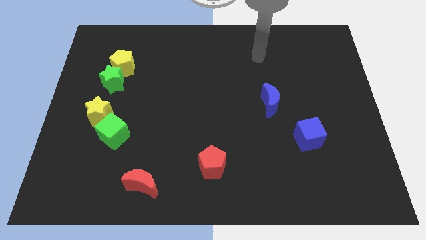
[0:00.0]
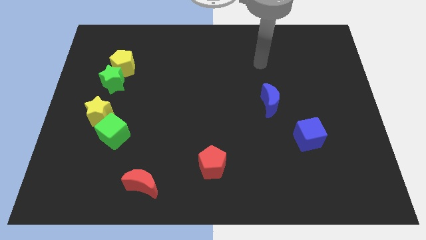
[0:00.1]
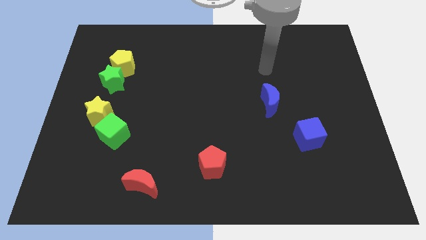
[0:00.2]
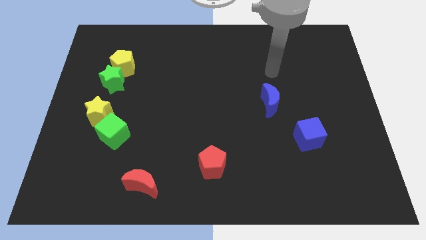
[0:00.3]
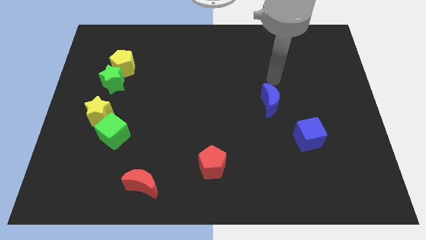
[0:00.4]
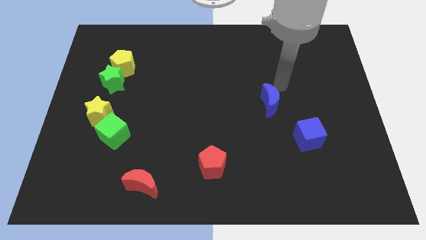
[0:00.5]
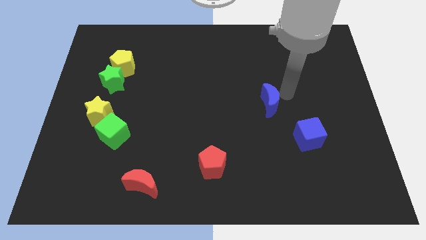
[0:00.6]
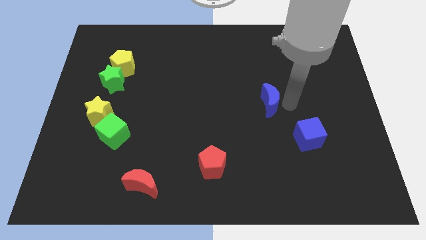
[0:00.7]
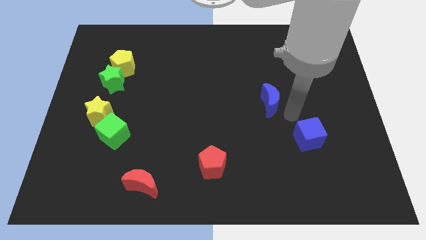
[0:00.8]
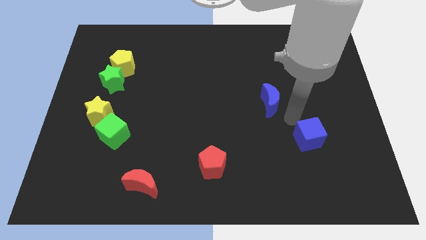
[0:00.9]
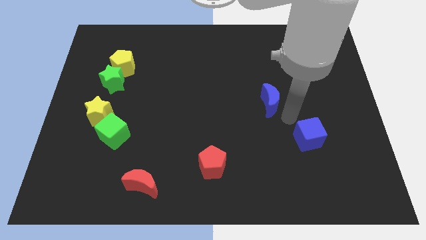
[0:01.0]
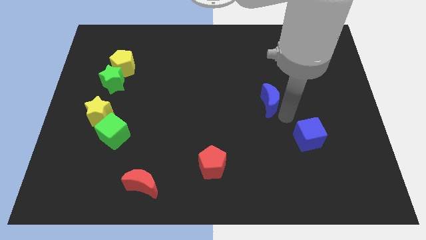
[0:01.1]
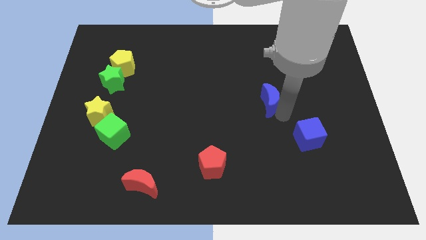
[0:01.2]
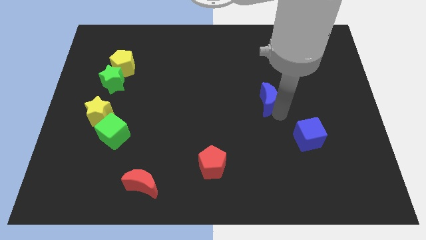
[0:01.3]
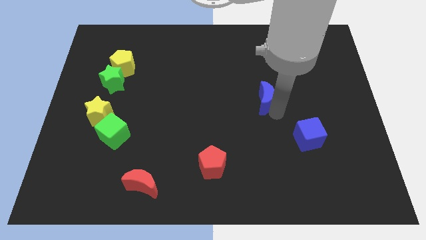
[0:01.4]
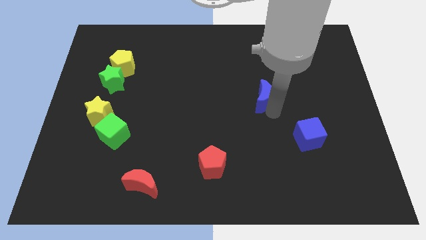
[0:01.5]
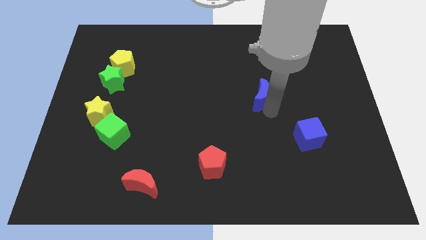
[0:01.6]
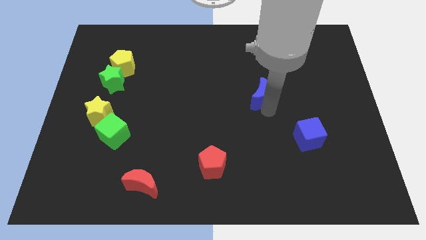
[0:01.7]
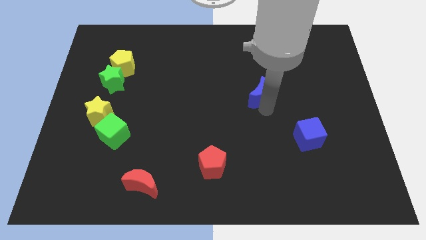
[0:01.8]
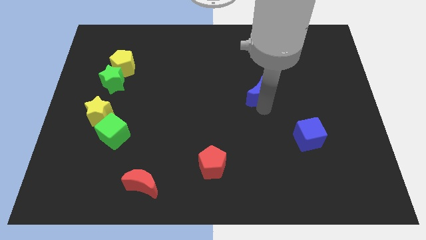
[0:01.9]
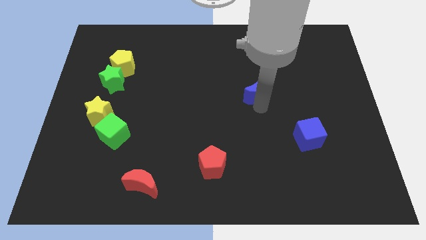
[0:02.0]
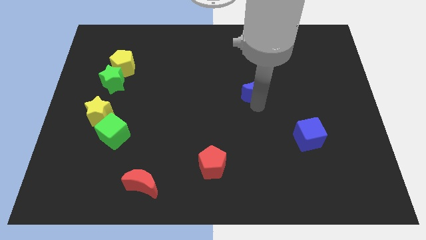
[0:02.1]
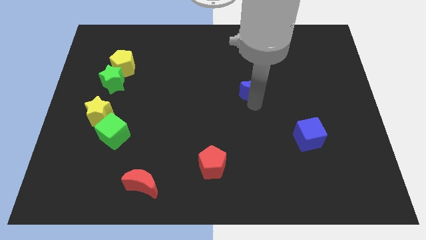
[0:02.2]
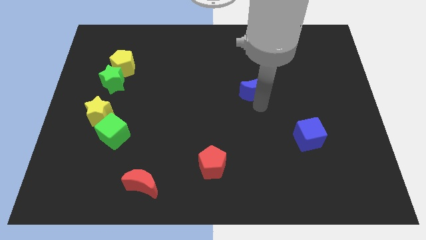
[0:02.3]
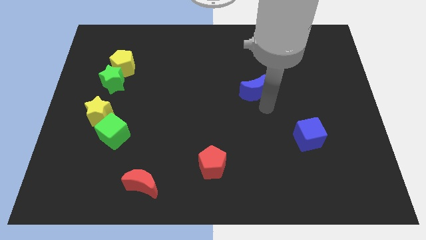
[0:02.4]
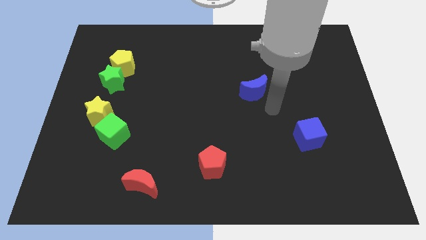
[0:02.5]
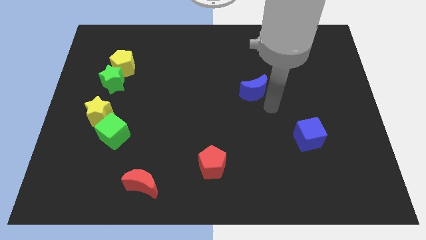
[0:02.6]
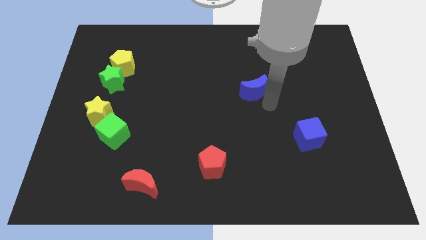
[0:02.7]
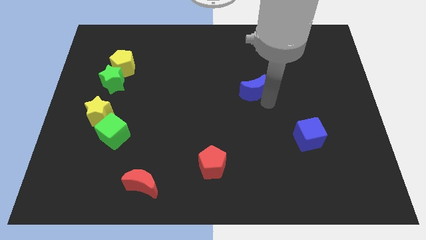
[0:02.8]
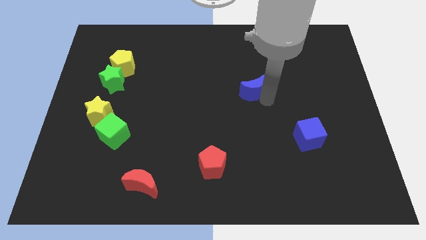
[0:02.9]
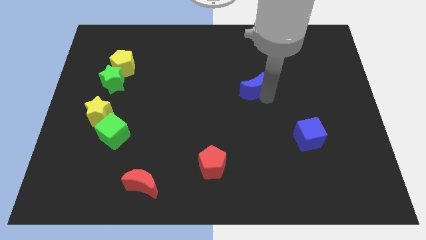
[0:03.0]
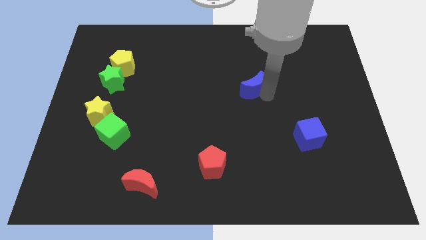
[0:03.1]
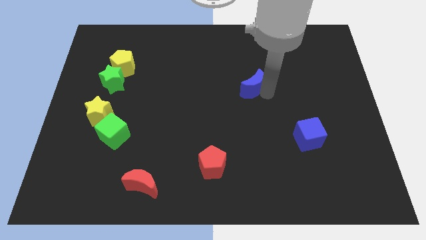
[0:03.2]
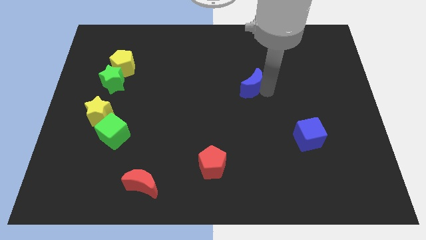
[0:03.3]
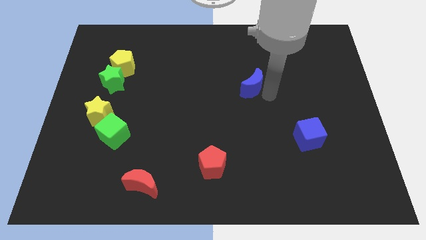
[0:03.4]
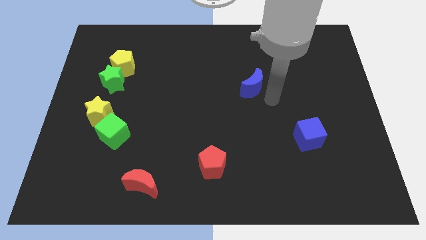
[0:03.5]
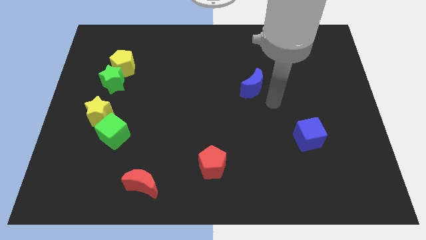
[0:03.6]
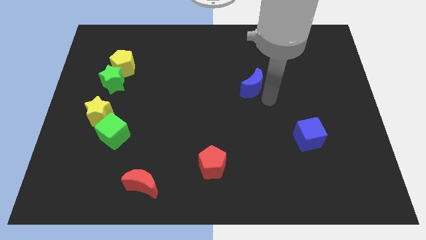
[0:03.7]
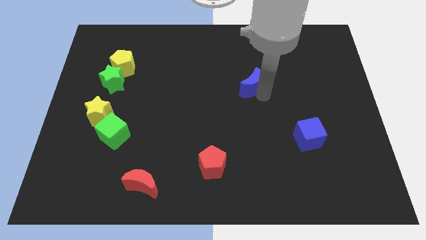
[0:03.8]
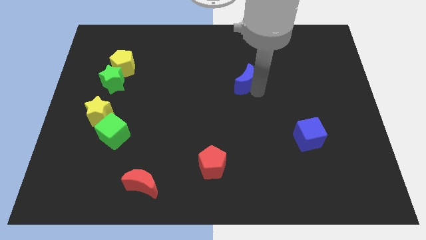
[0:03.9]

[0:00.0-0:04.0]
move the blue moon upwards and then to the left somewhat

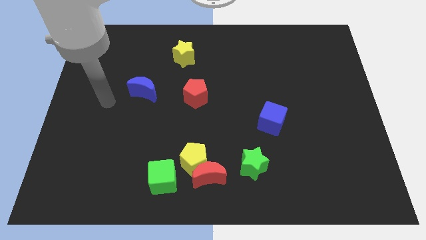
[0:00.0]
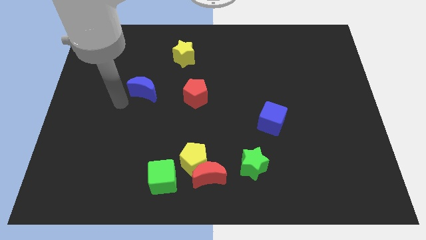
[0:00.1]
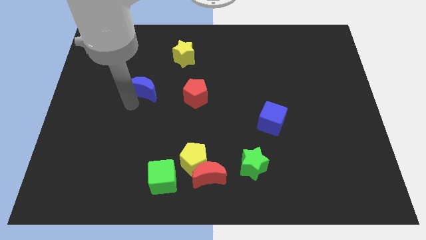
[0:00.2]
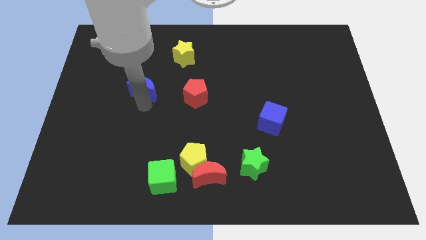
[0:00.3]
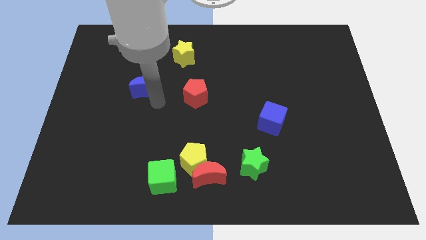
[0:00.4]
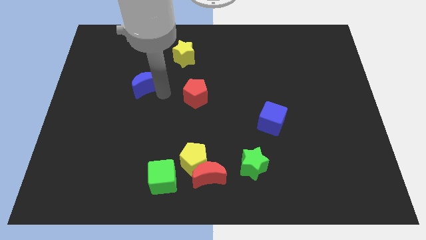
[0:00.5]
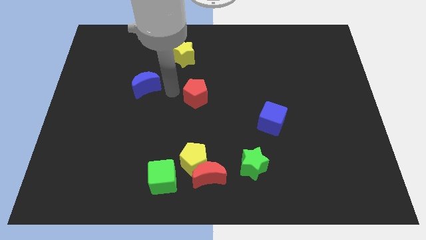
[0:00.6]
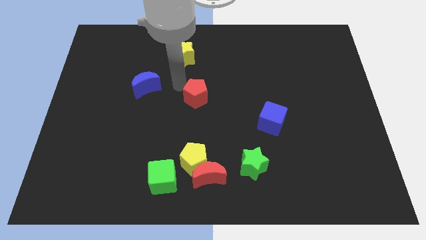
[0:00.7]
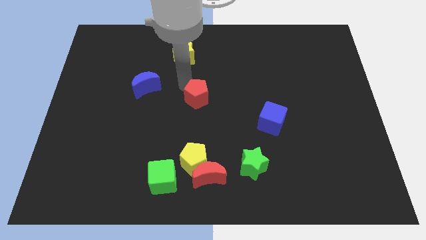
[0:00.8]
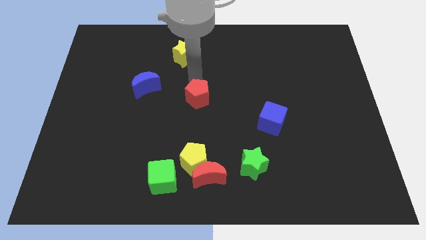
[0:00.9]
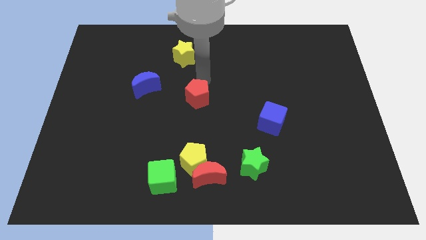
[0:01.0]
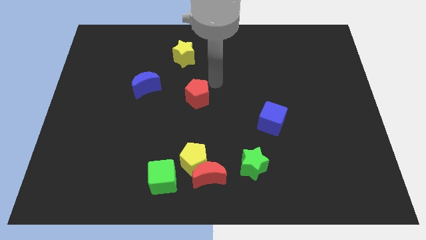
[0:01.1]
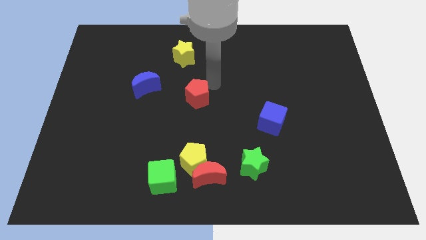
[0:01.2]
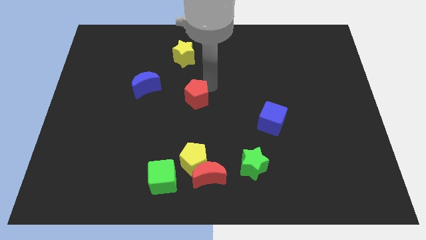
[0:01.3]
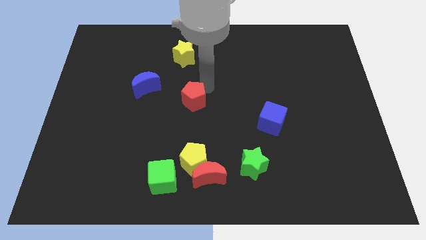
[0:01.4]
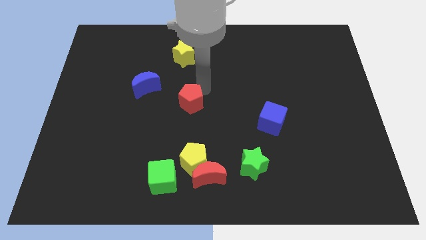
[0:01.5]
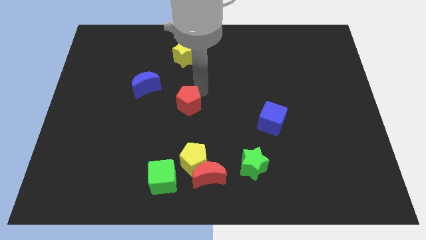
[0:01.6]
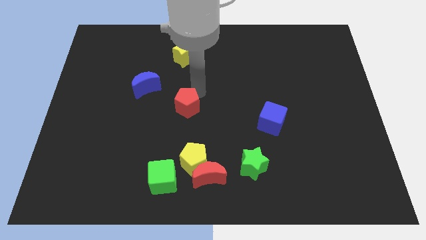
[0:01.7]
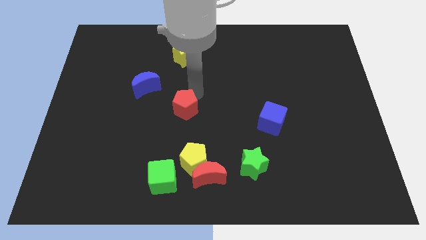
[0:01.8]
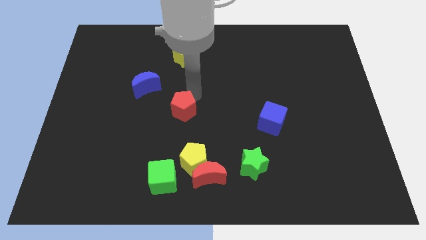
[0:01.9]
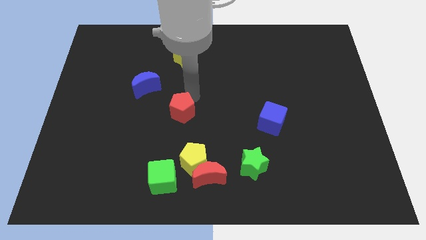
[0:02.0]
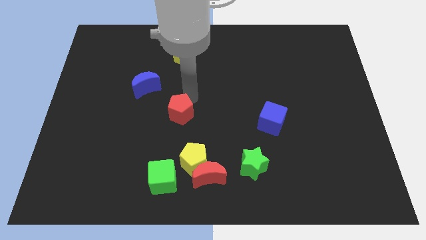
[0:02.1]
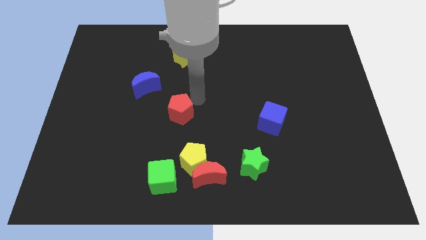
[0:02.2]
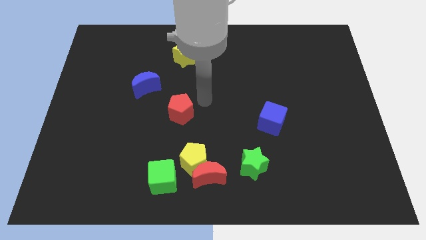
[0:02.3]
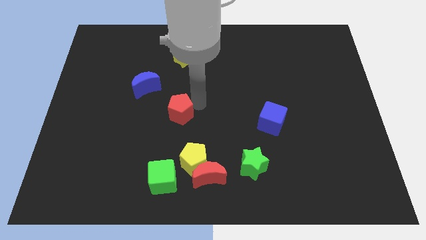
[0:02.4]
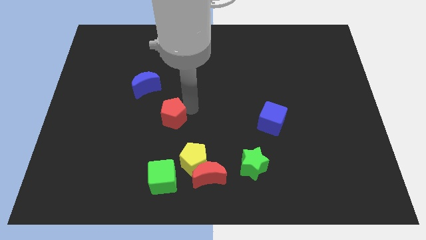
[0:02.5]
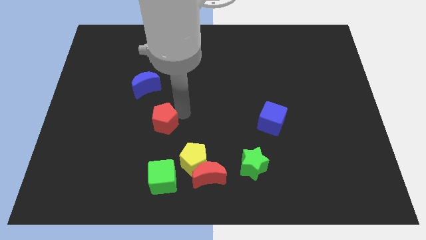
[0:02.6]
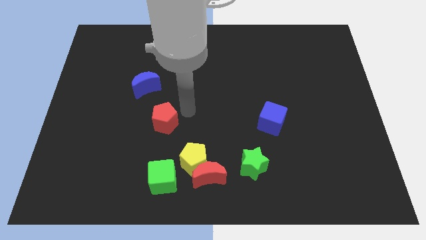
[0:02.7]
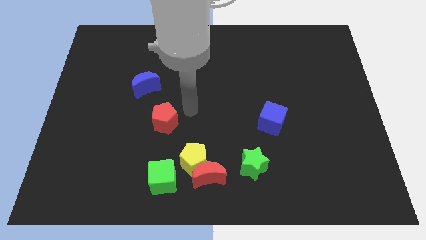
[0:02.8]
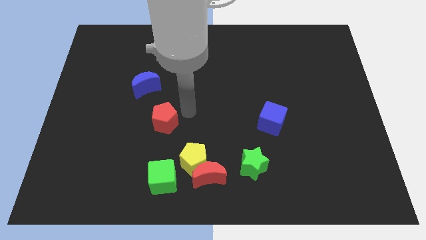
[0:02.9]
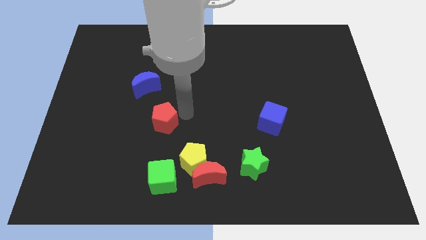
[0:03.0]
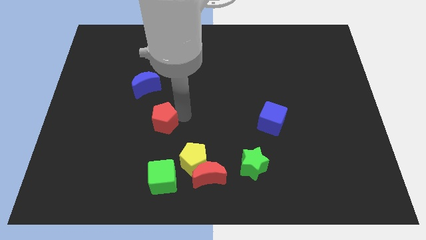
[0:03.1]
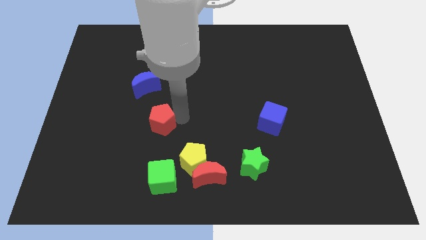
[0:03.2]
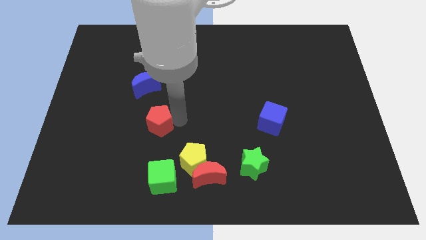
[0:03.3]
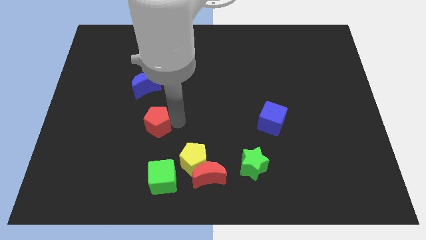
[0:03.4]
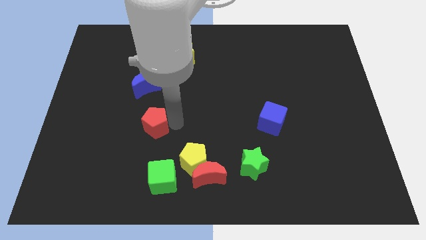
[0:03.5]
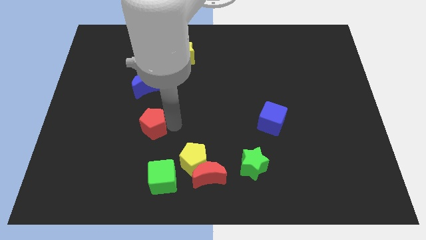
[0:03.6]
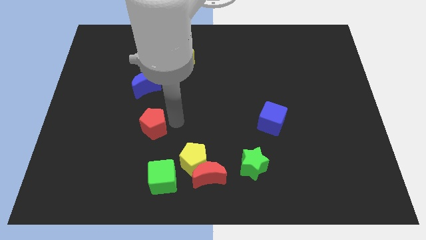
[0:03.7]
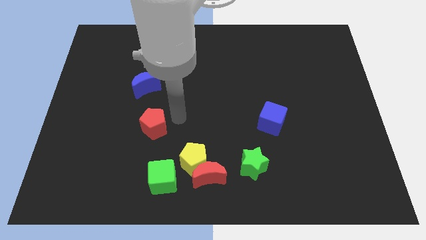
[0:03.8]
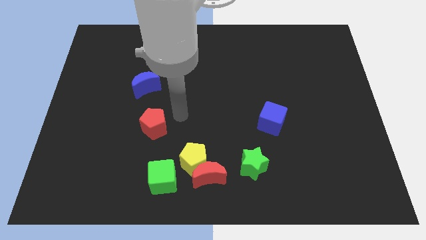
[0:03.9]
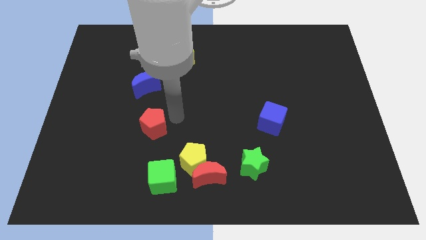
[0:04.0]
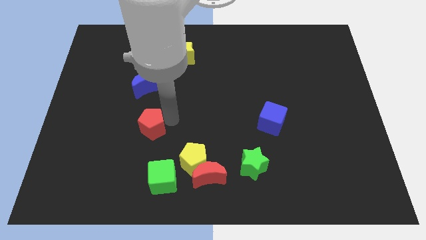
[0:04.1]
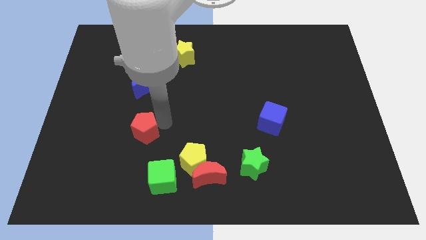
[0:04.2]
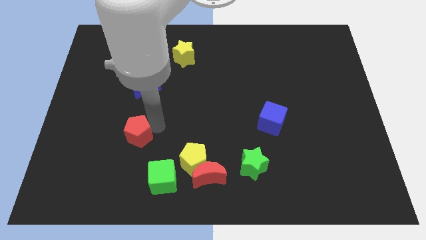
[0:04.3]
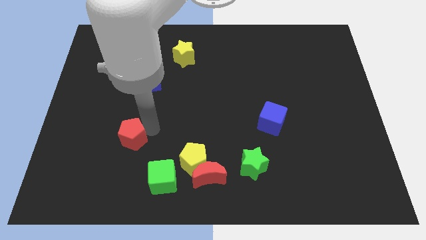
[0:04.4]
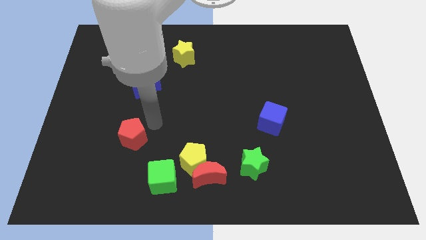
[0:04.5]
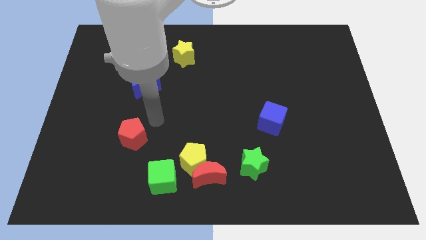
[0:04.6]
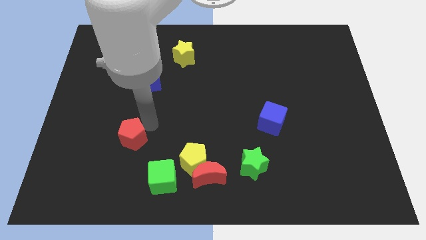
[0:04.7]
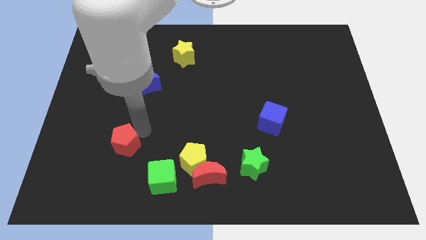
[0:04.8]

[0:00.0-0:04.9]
move the red pentagon diagonally downwards and left
